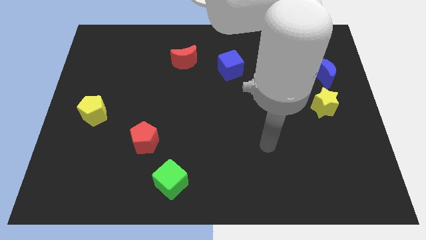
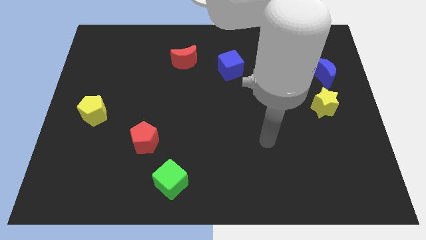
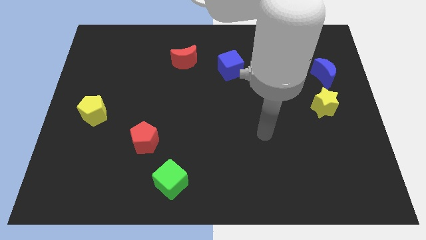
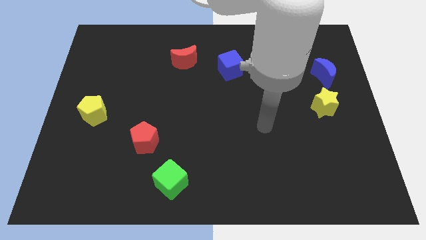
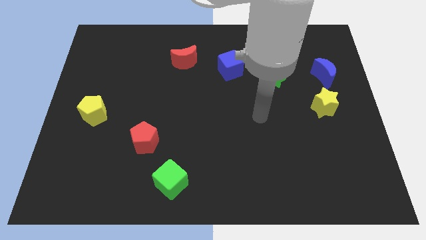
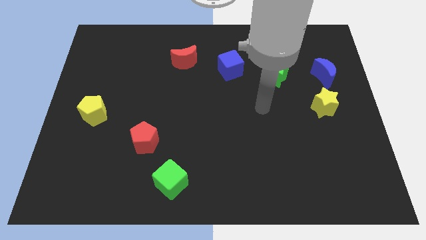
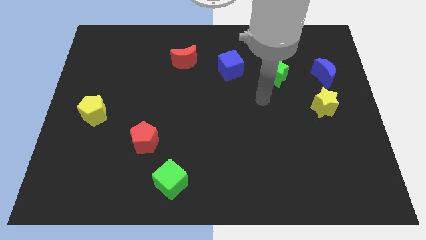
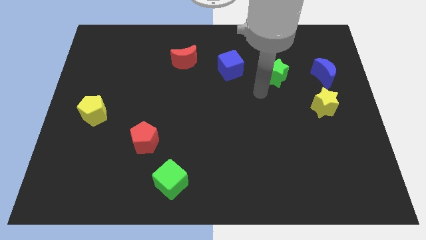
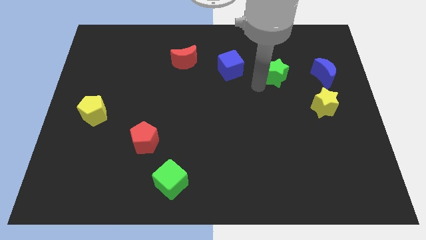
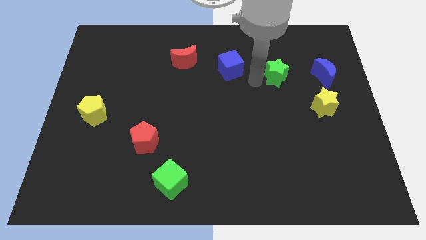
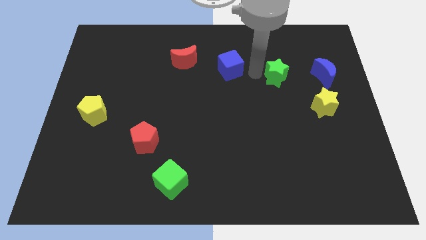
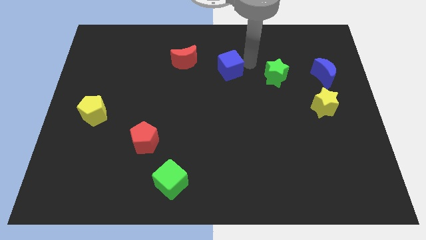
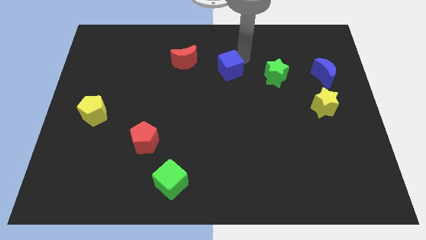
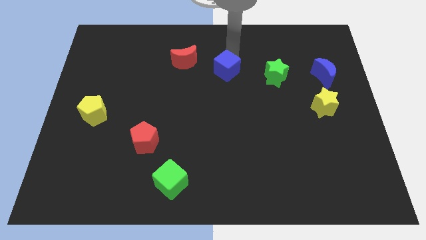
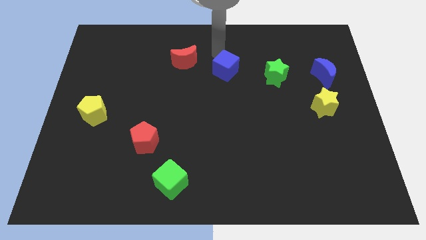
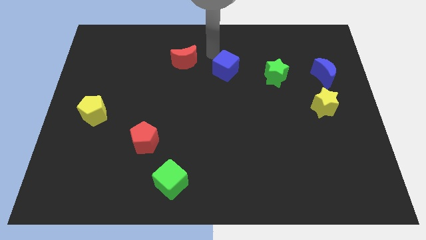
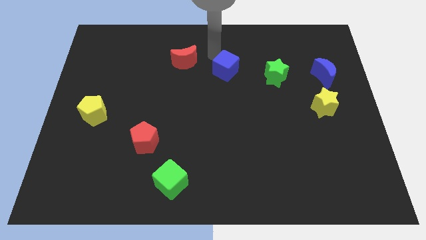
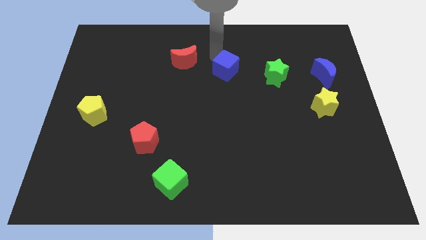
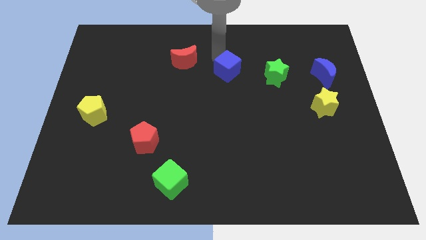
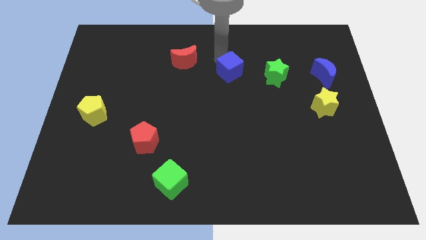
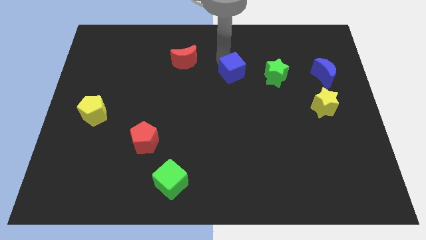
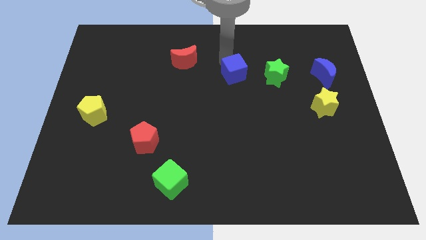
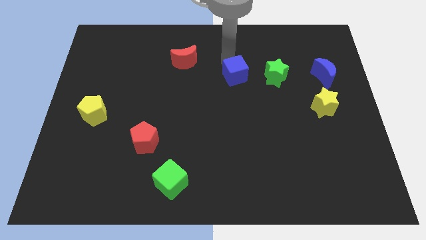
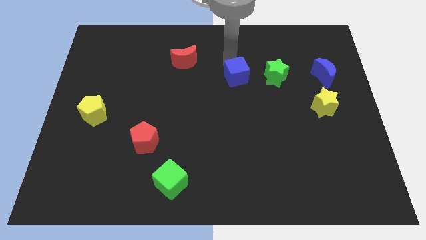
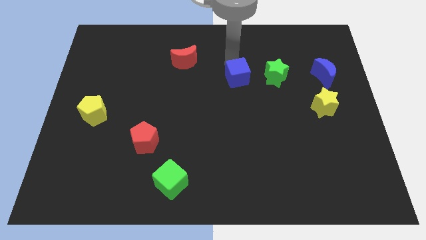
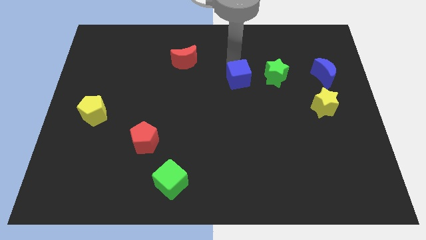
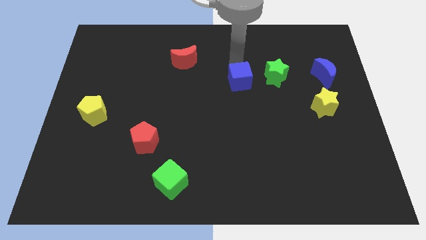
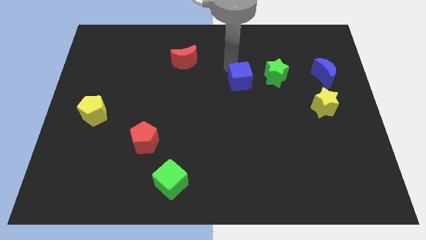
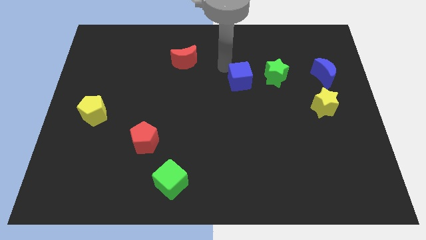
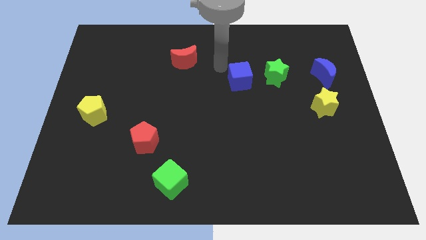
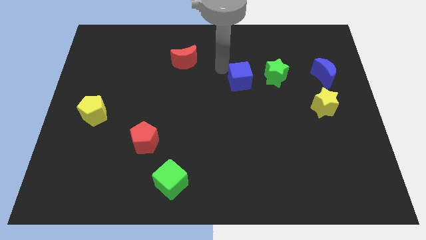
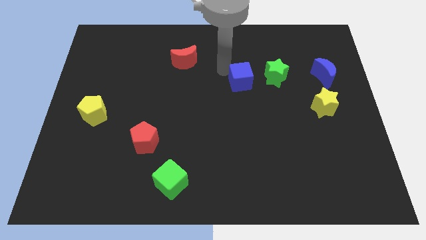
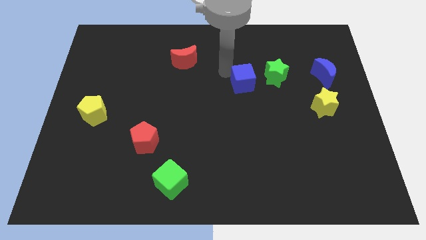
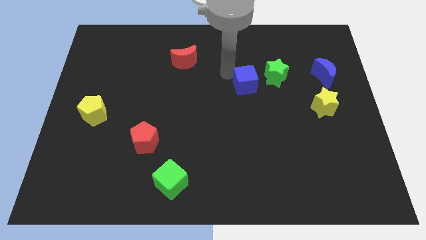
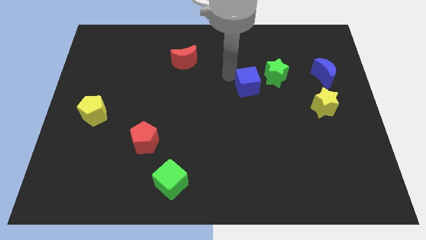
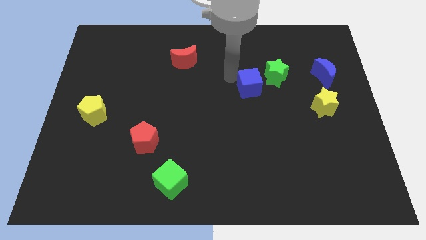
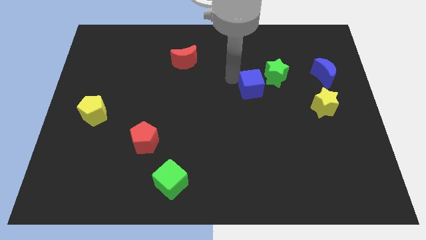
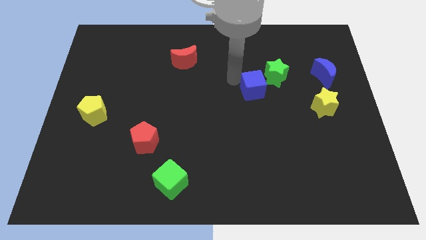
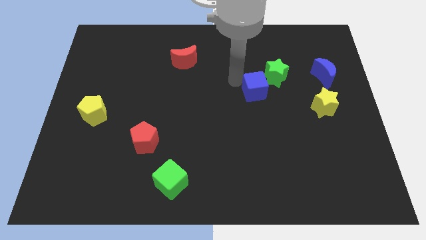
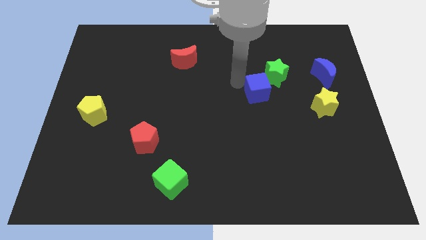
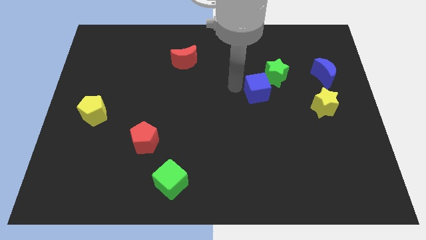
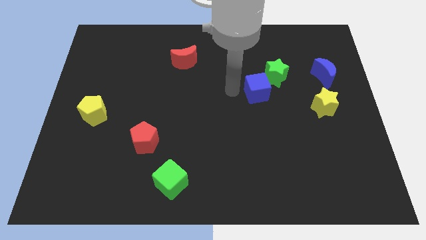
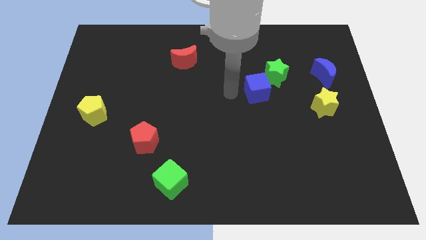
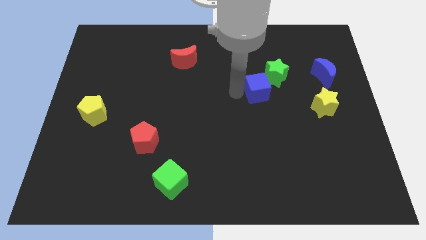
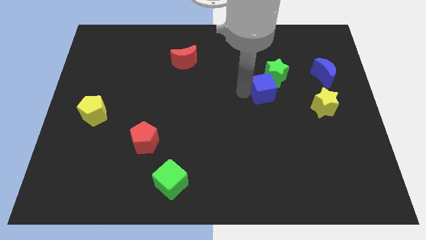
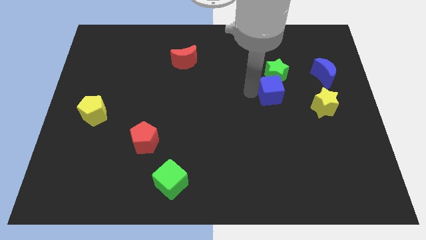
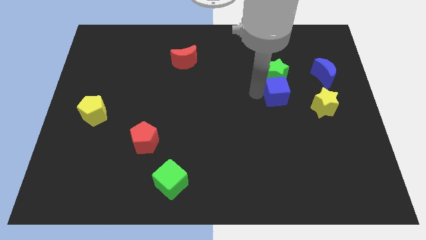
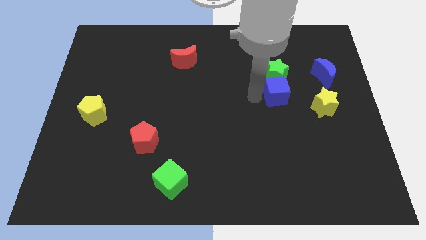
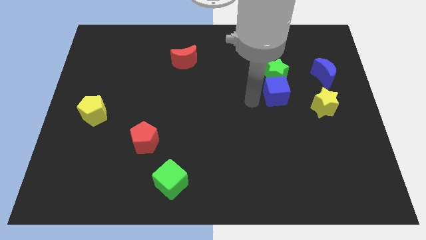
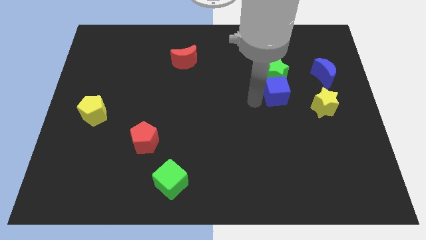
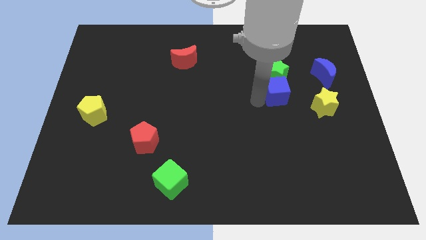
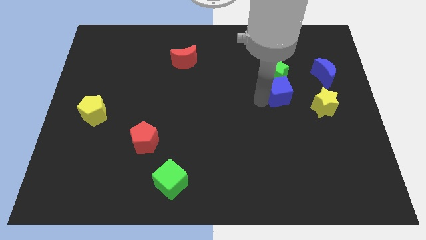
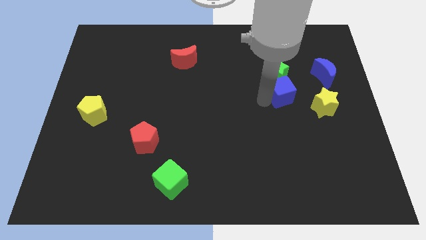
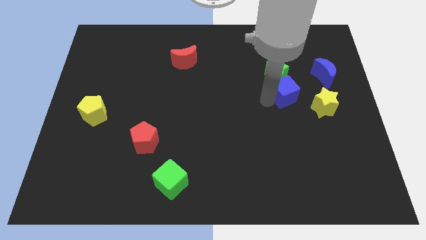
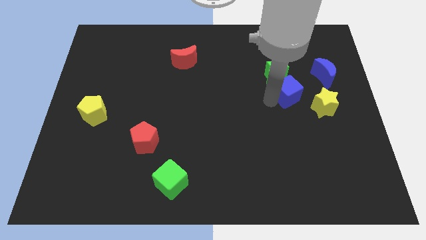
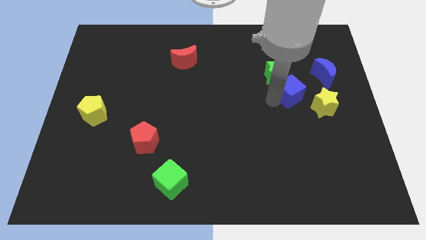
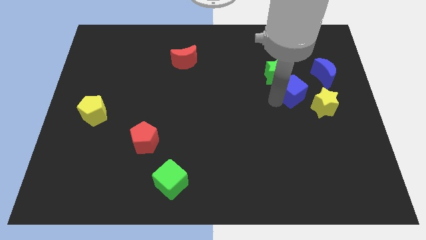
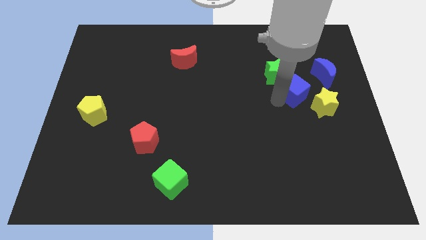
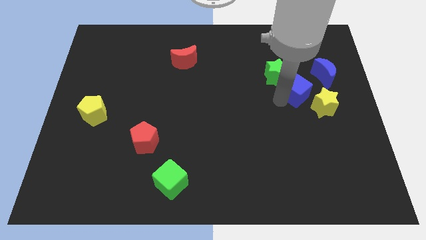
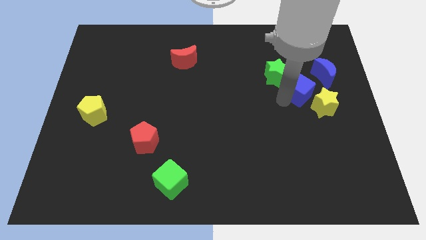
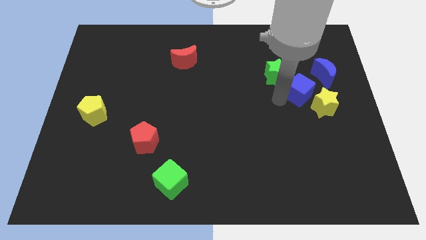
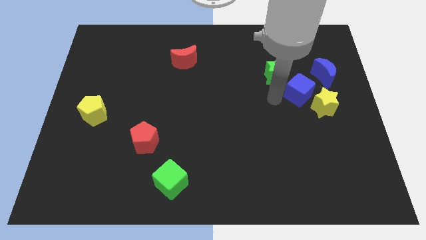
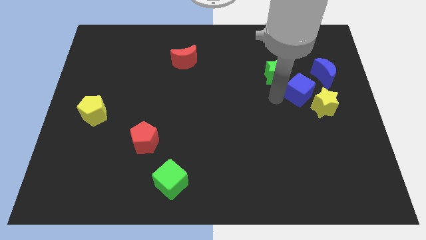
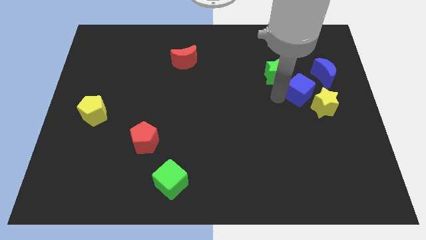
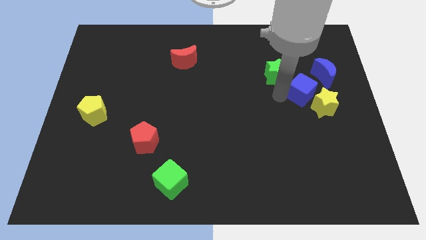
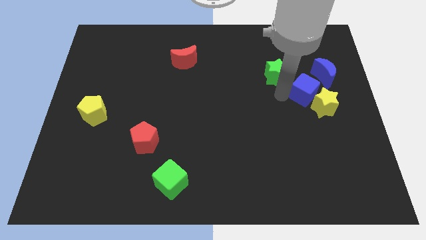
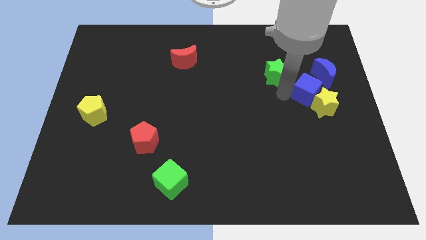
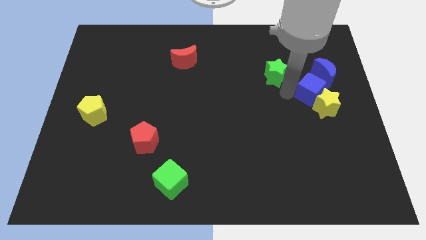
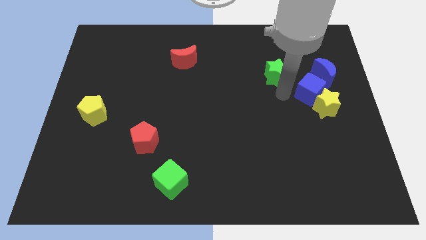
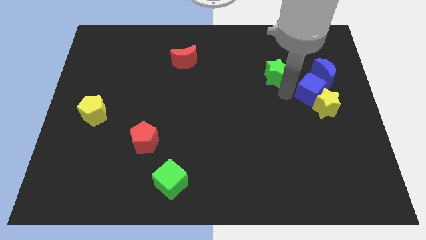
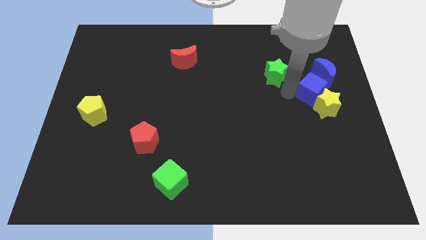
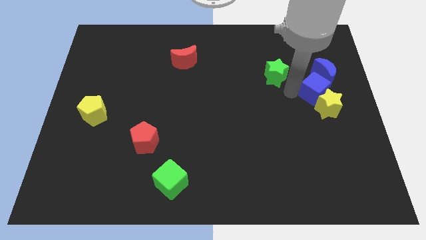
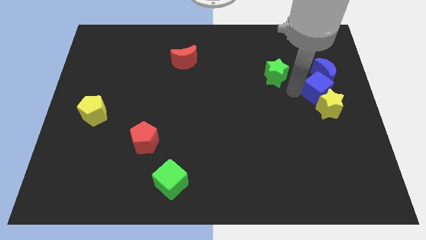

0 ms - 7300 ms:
slide the blue cube to the right side

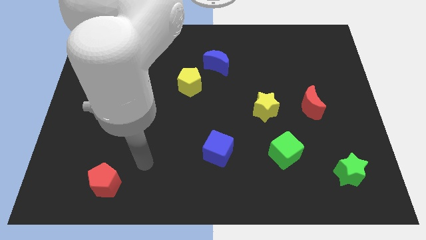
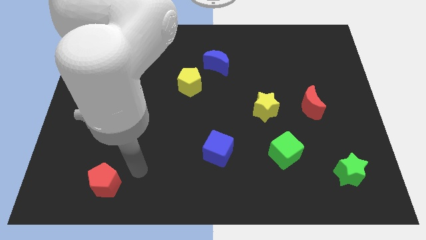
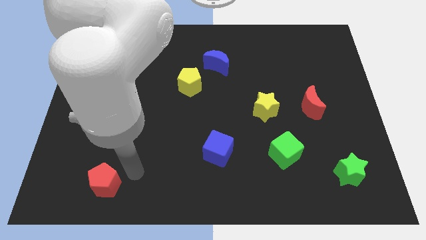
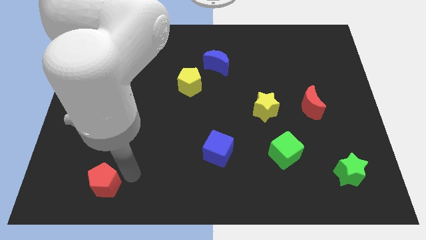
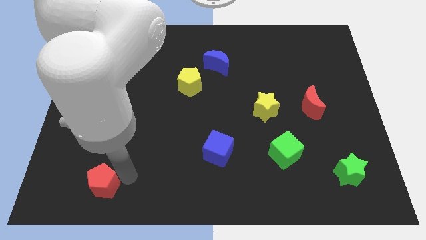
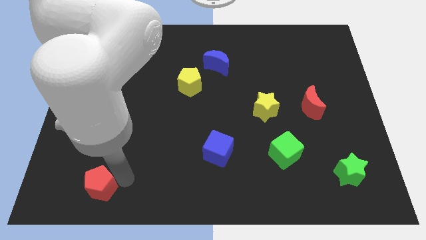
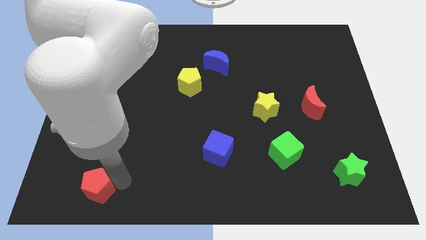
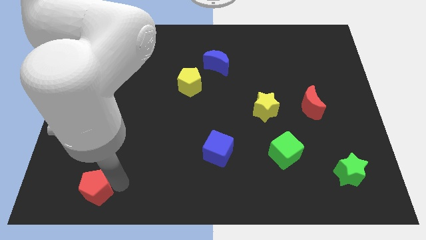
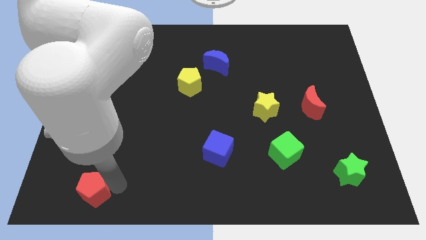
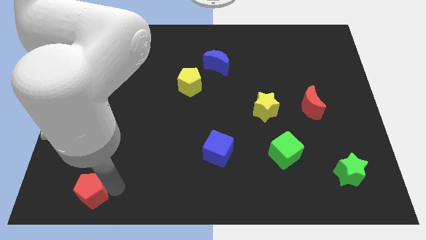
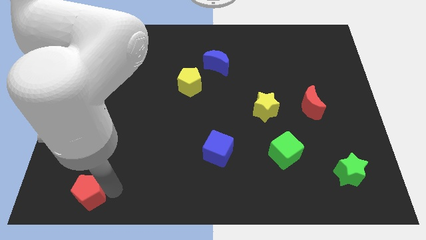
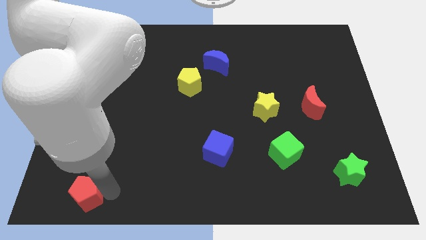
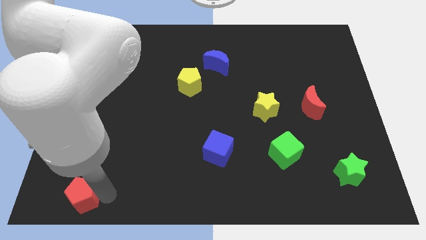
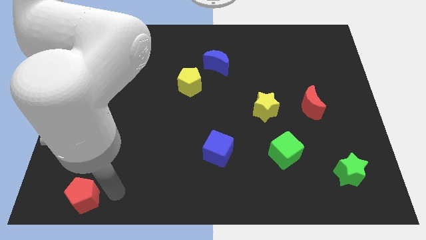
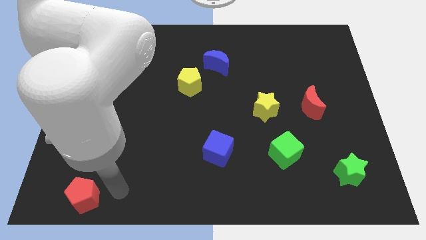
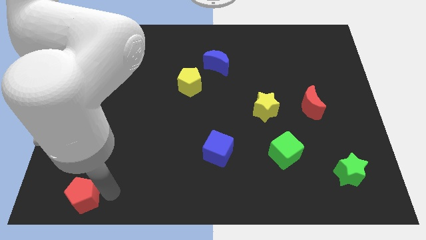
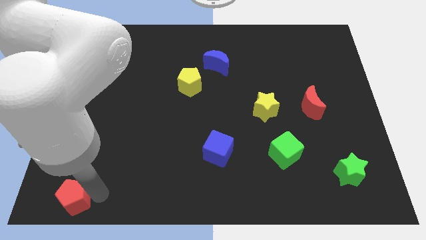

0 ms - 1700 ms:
push the red pentagon to the lower left corner
